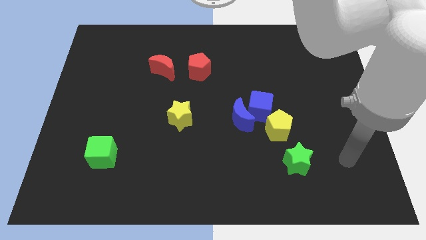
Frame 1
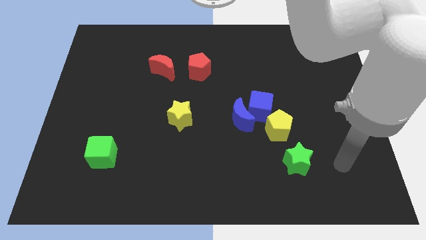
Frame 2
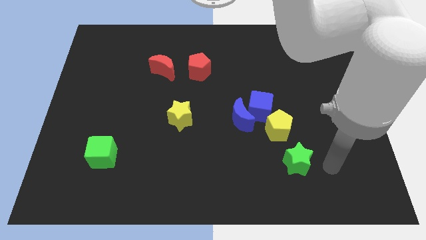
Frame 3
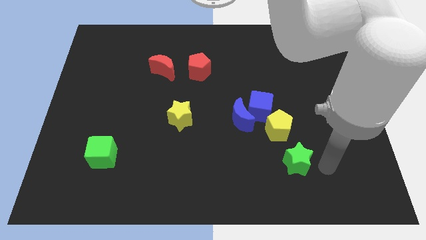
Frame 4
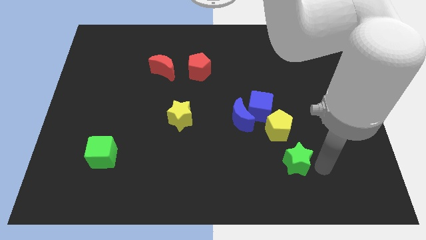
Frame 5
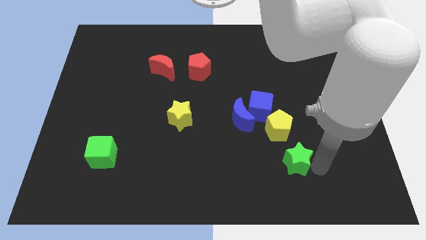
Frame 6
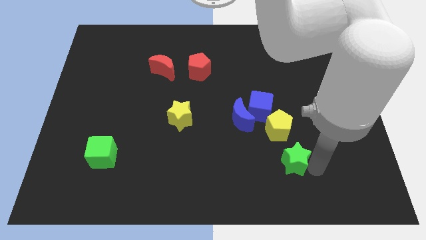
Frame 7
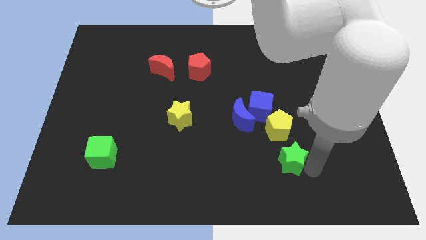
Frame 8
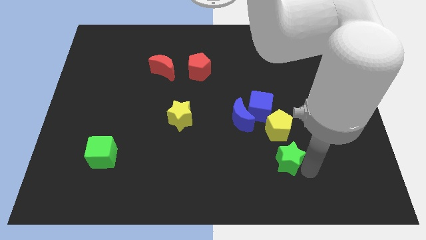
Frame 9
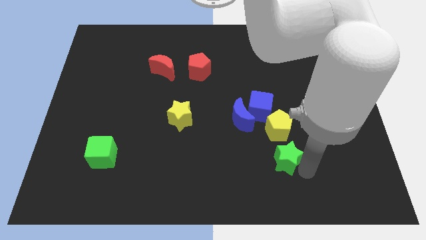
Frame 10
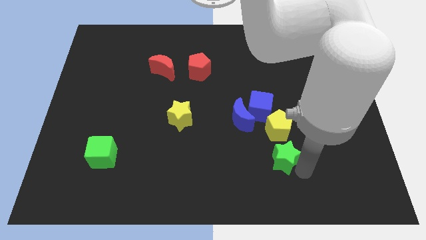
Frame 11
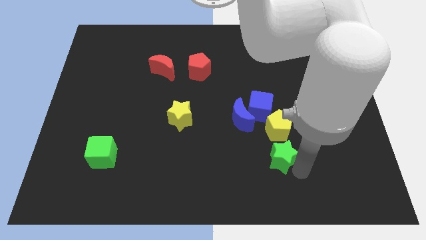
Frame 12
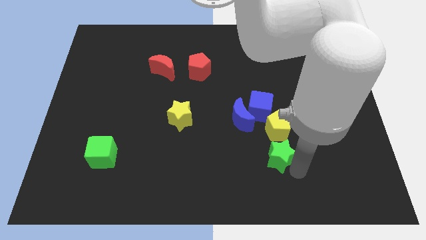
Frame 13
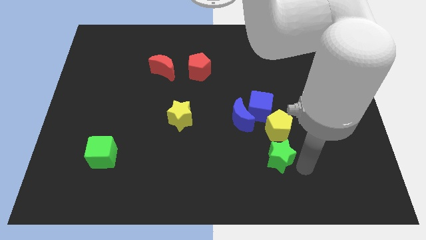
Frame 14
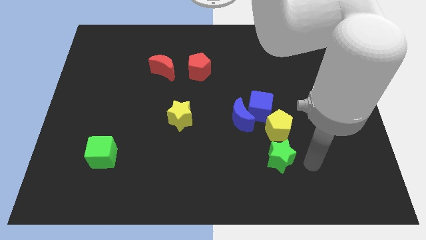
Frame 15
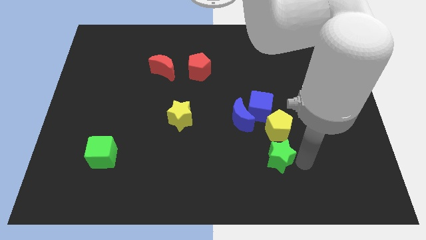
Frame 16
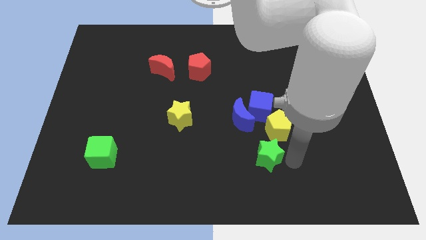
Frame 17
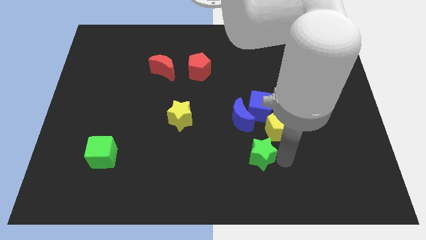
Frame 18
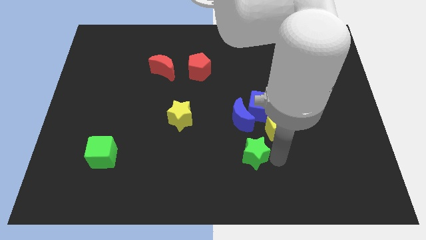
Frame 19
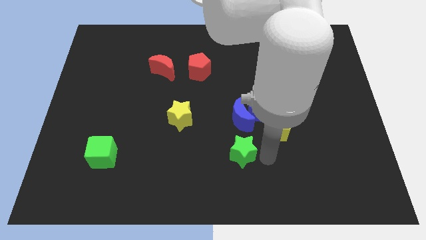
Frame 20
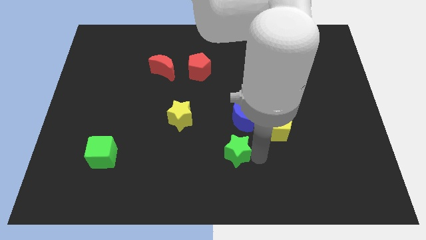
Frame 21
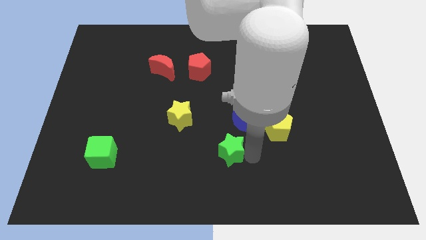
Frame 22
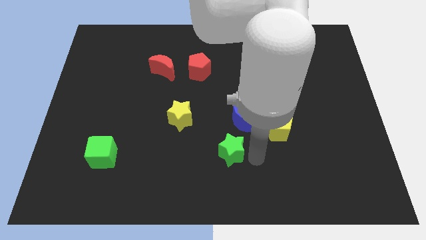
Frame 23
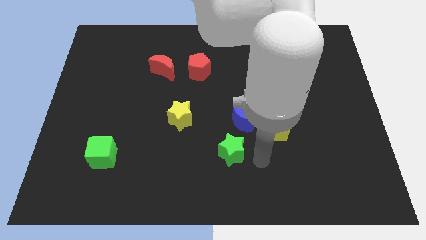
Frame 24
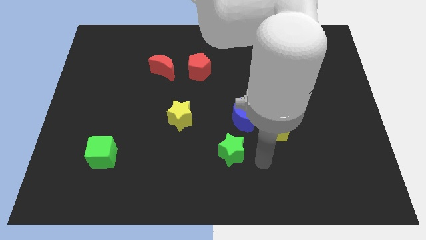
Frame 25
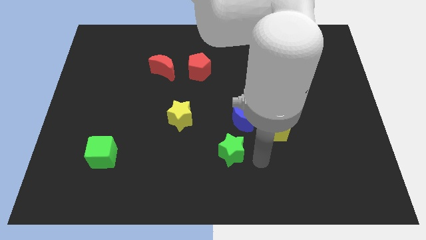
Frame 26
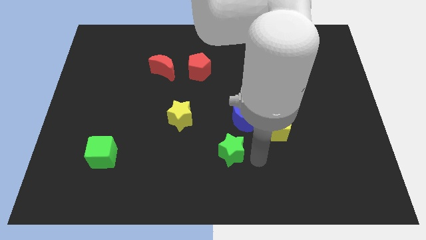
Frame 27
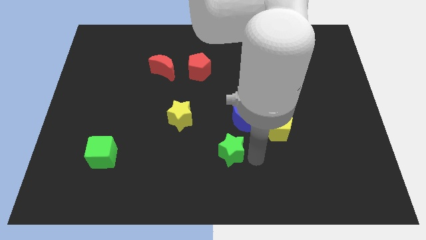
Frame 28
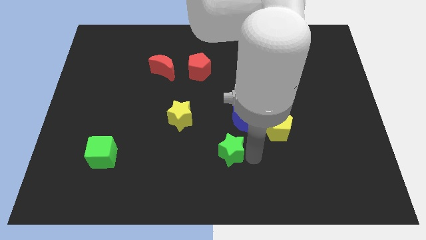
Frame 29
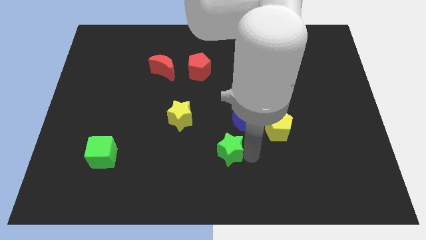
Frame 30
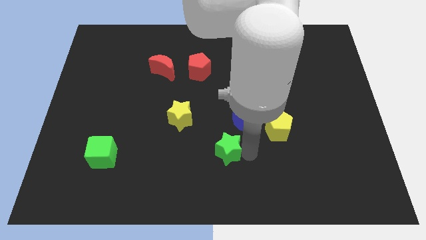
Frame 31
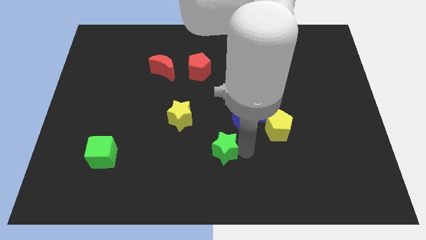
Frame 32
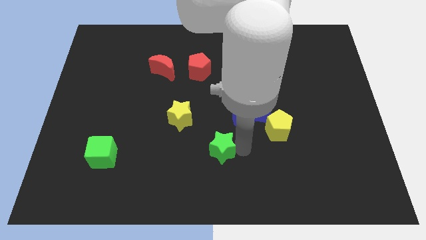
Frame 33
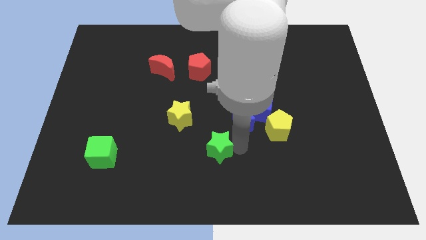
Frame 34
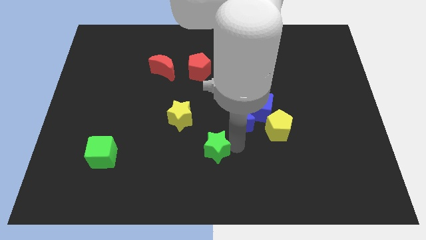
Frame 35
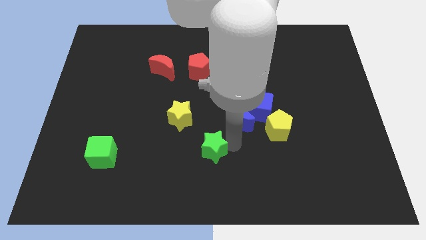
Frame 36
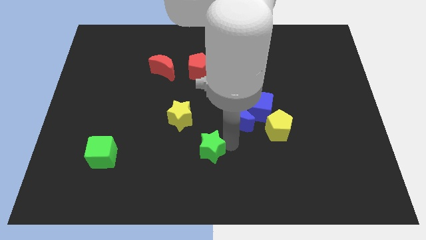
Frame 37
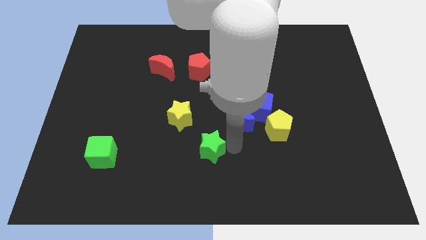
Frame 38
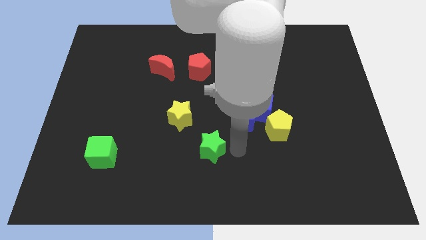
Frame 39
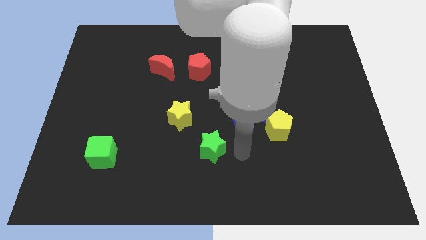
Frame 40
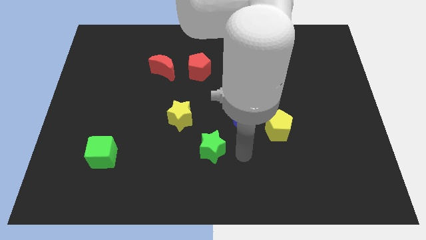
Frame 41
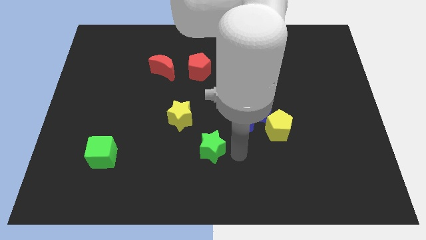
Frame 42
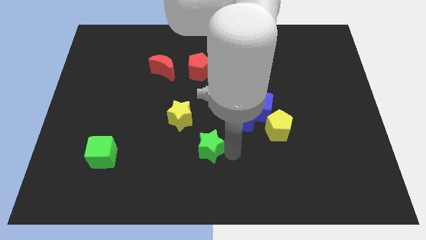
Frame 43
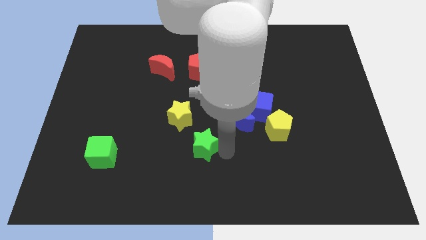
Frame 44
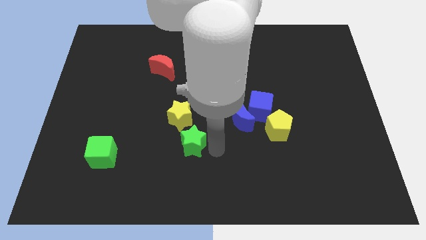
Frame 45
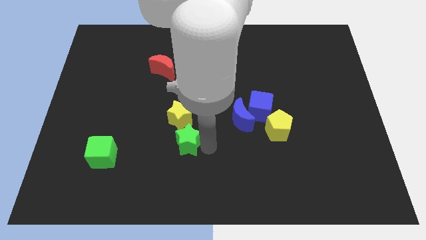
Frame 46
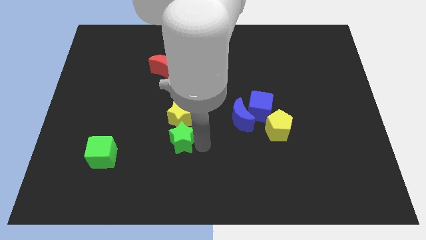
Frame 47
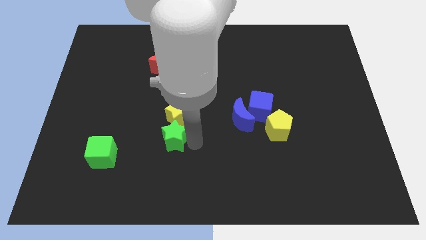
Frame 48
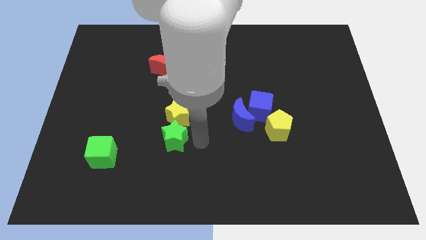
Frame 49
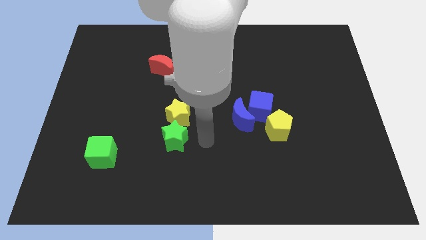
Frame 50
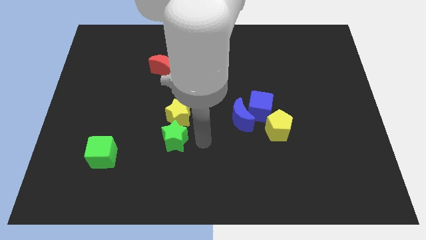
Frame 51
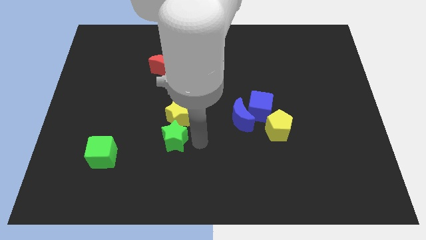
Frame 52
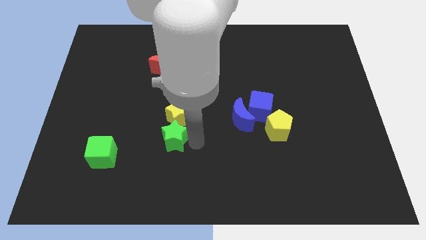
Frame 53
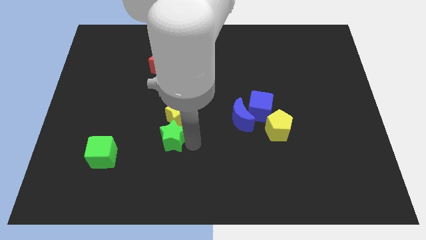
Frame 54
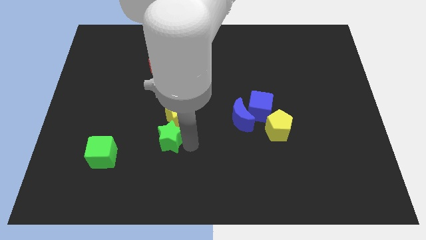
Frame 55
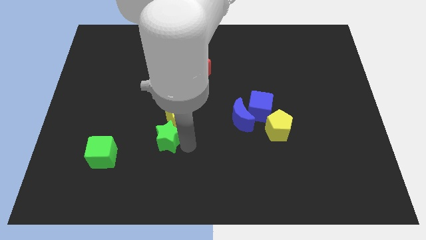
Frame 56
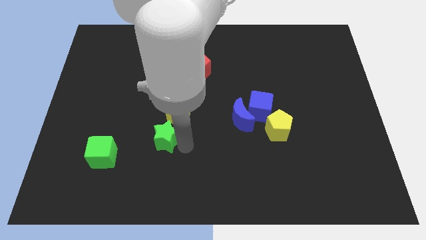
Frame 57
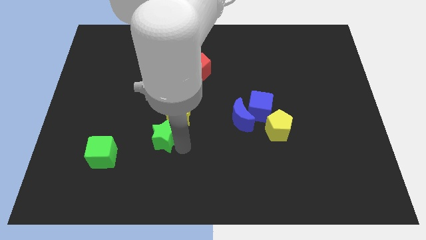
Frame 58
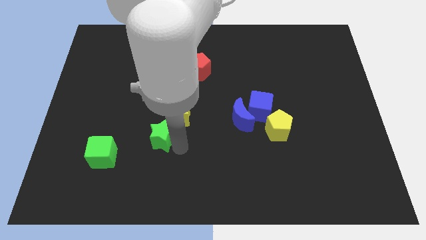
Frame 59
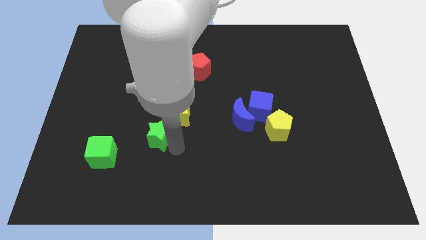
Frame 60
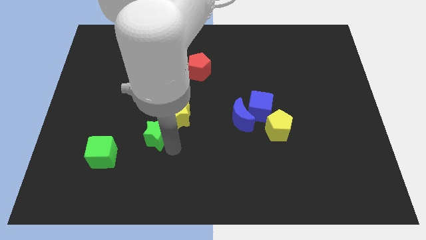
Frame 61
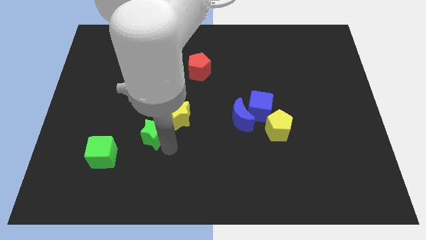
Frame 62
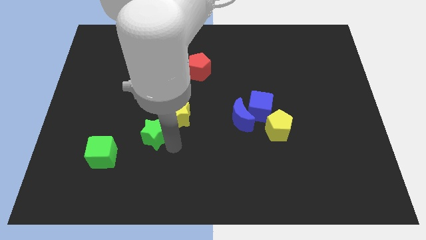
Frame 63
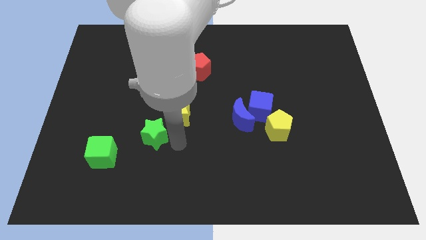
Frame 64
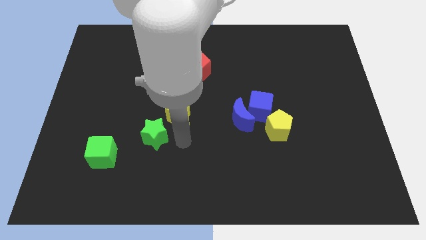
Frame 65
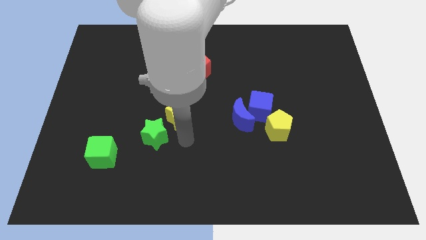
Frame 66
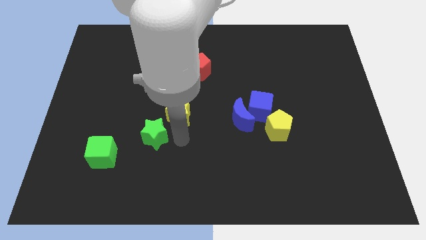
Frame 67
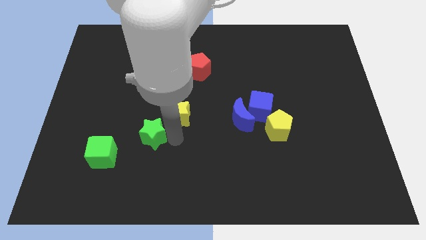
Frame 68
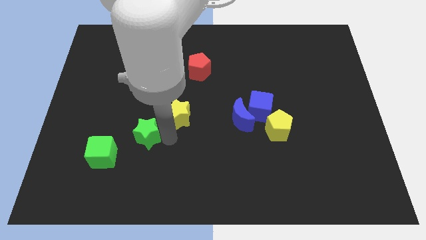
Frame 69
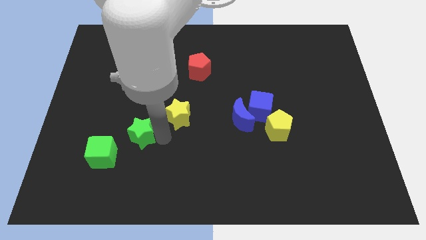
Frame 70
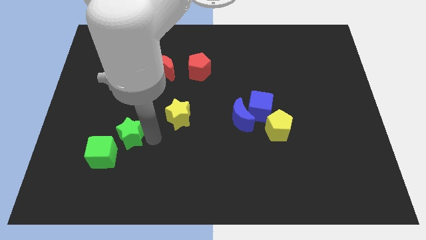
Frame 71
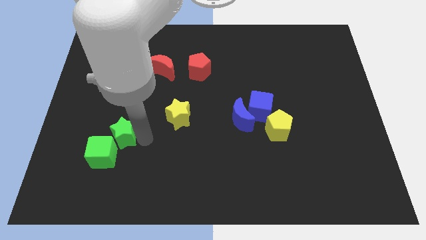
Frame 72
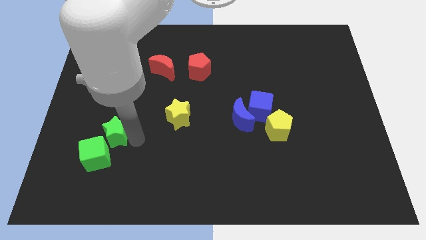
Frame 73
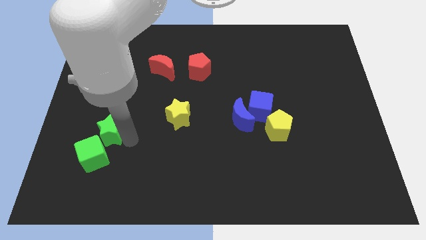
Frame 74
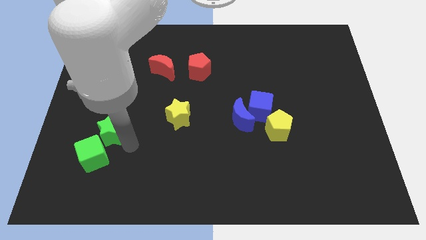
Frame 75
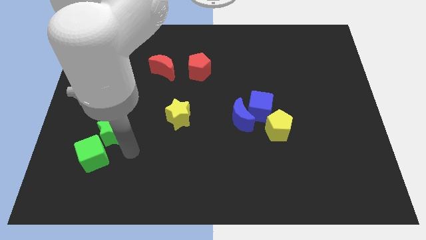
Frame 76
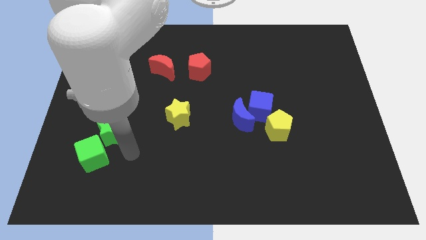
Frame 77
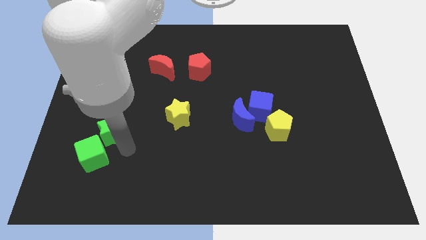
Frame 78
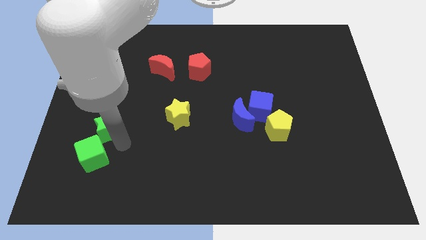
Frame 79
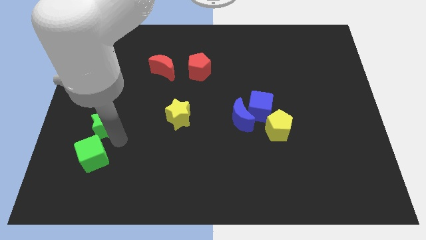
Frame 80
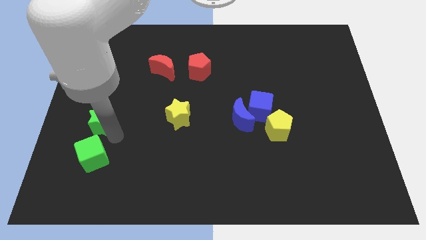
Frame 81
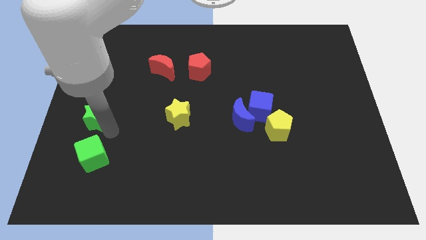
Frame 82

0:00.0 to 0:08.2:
push the green star to the left side of the board
